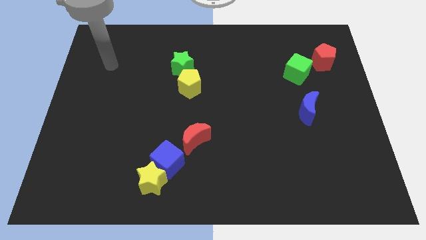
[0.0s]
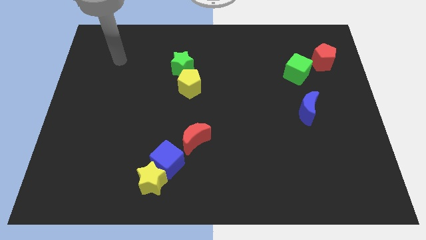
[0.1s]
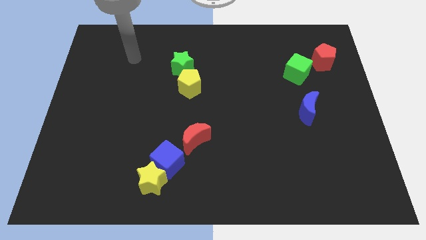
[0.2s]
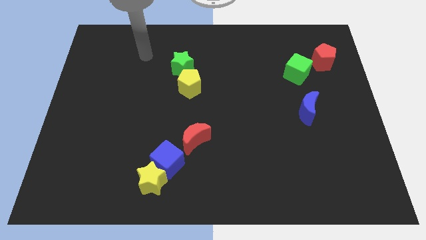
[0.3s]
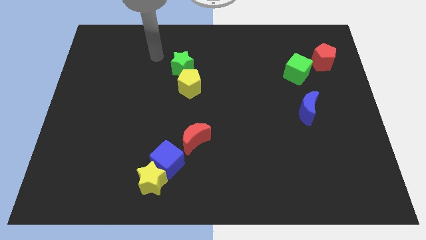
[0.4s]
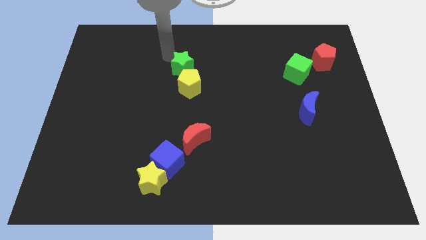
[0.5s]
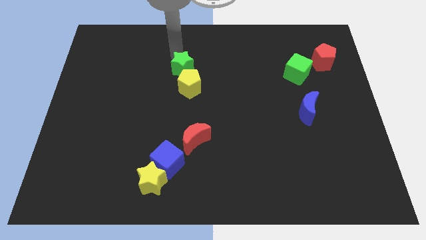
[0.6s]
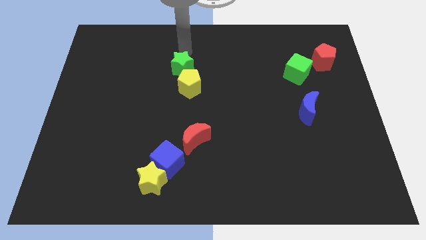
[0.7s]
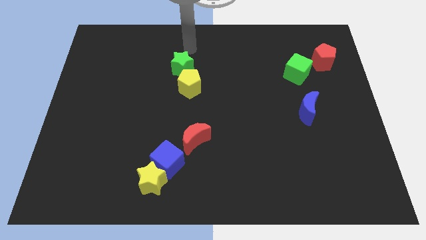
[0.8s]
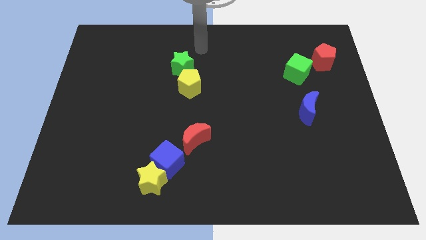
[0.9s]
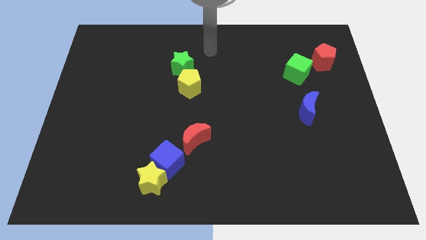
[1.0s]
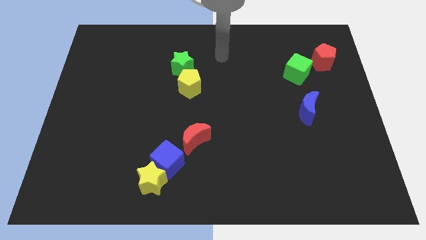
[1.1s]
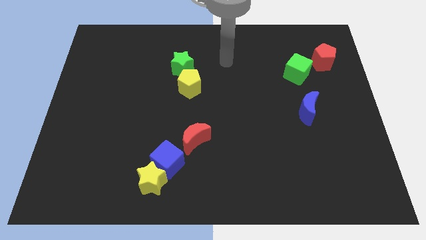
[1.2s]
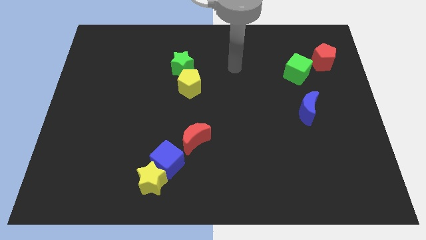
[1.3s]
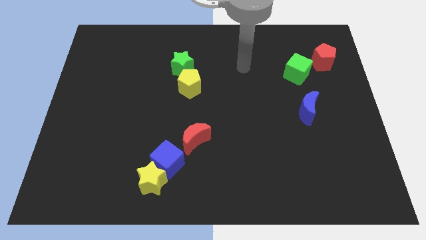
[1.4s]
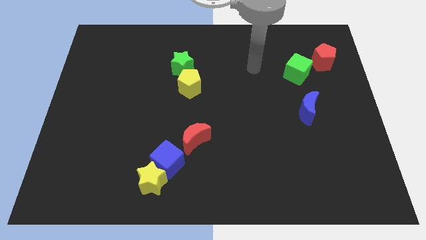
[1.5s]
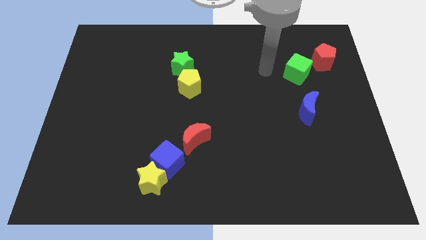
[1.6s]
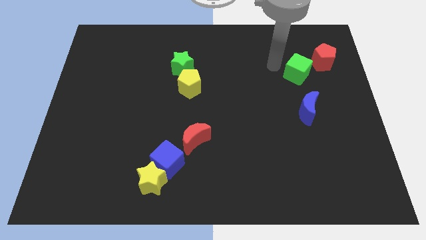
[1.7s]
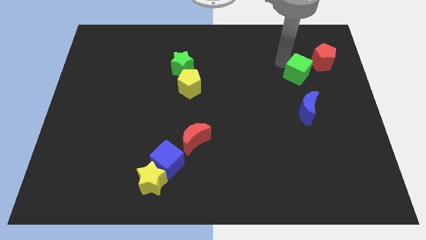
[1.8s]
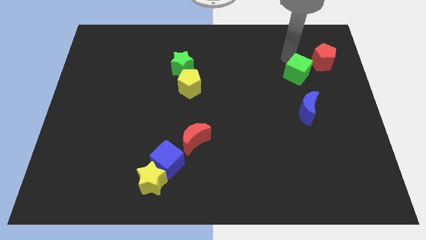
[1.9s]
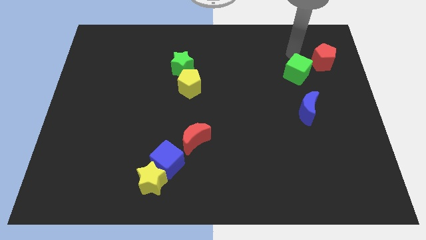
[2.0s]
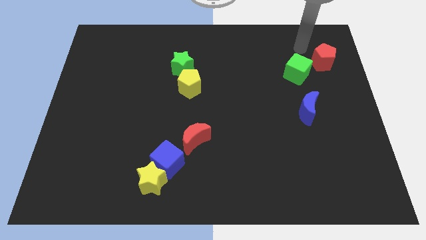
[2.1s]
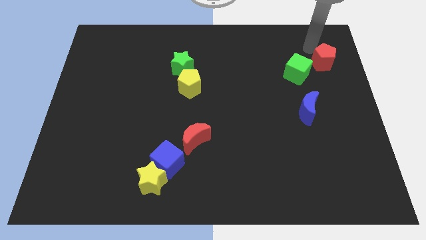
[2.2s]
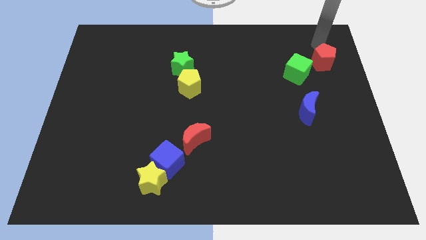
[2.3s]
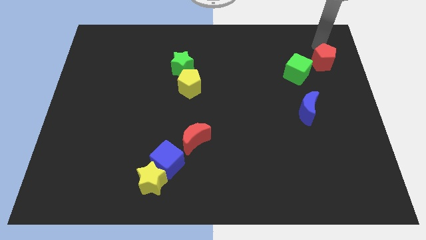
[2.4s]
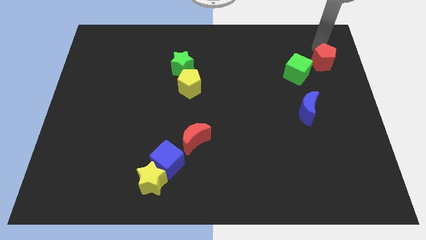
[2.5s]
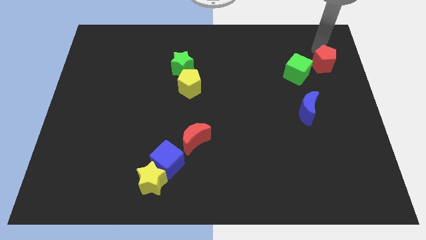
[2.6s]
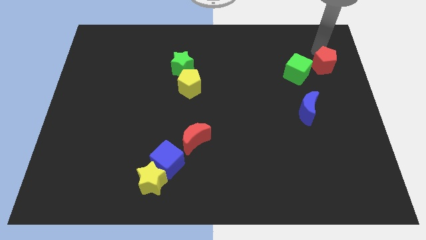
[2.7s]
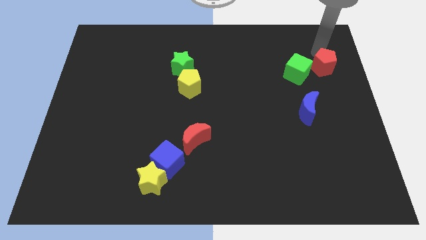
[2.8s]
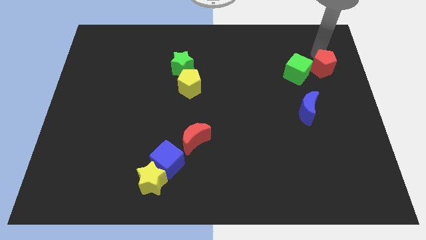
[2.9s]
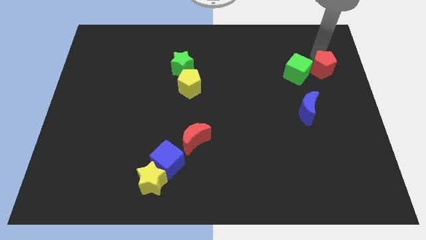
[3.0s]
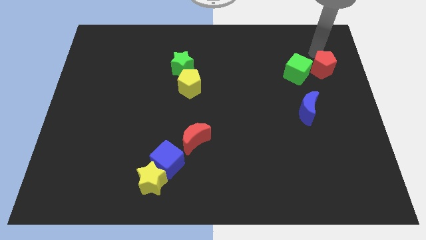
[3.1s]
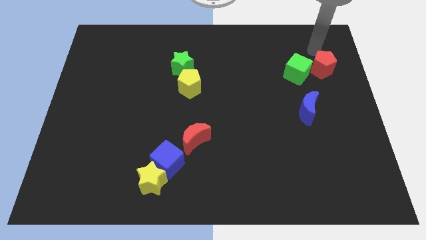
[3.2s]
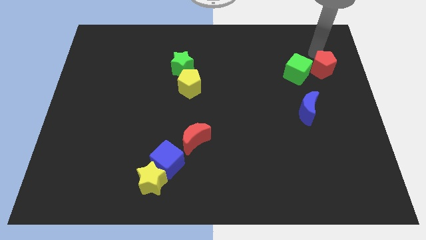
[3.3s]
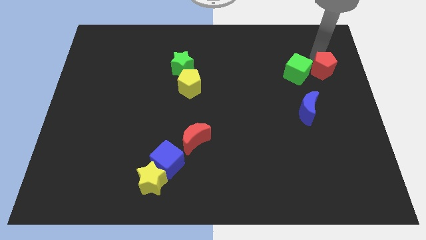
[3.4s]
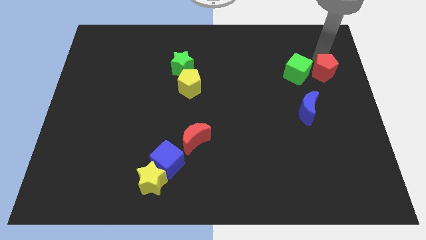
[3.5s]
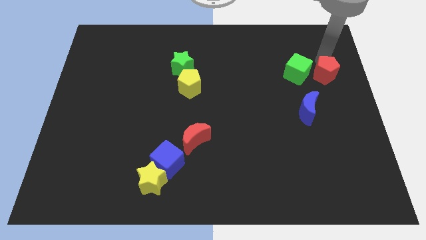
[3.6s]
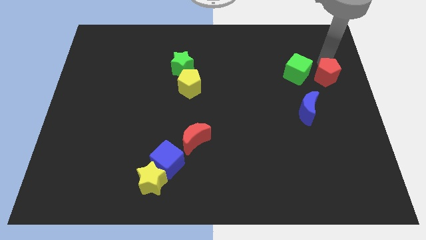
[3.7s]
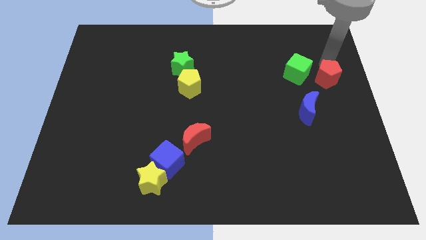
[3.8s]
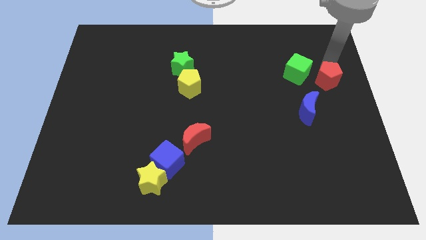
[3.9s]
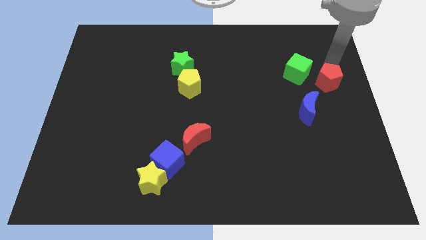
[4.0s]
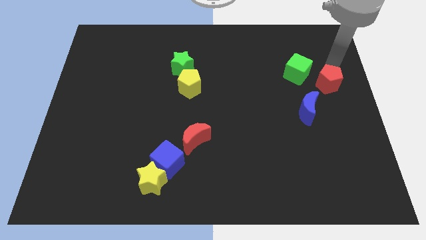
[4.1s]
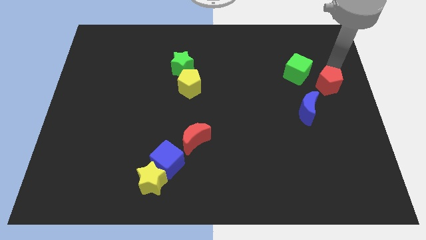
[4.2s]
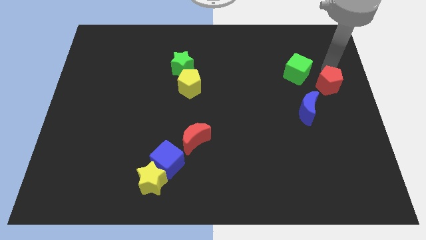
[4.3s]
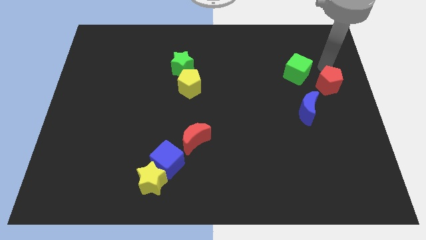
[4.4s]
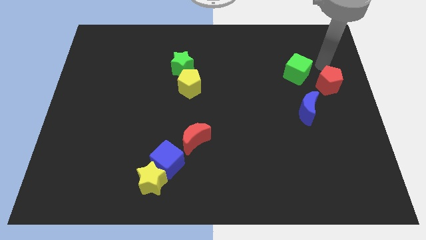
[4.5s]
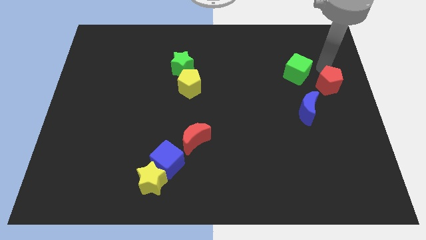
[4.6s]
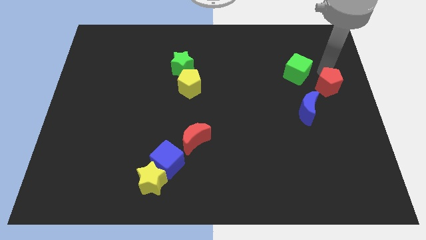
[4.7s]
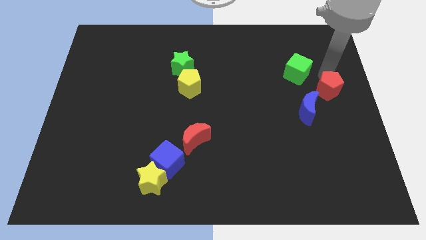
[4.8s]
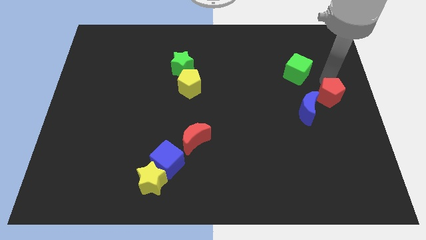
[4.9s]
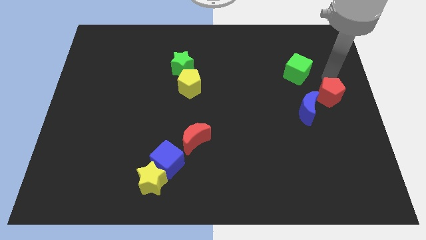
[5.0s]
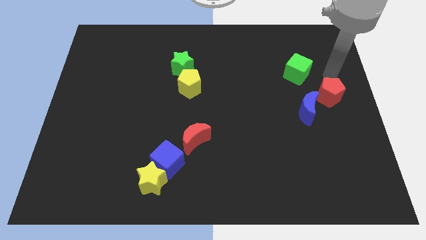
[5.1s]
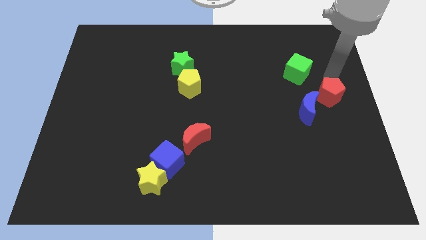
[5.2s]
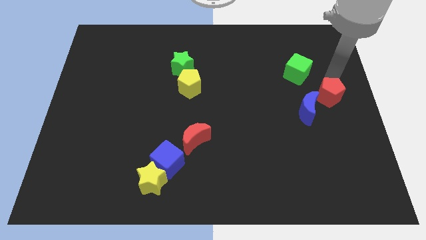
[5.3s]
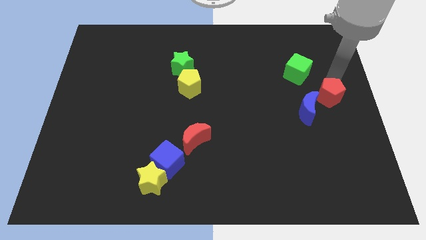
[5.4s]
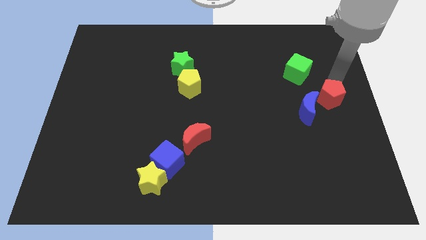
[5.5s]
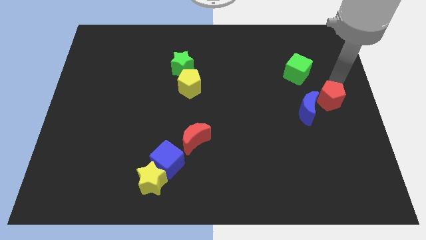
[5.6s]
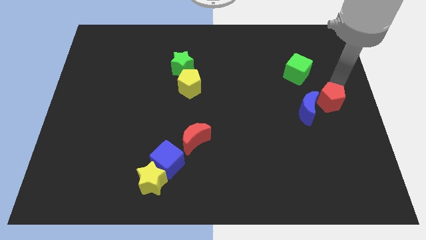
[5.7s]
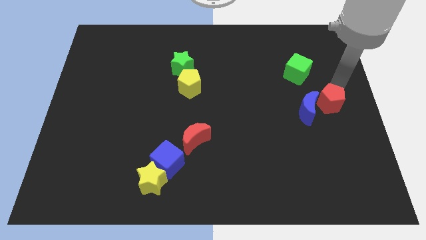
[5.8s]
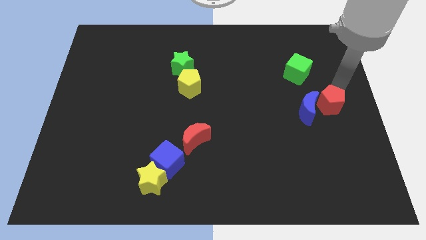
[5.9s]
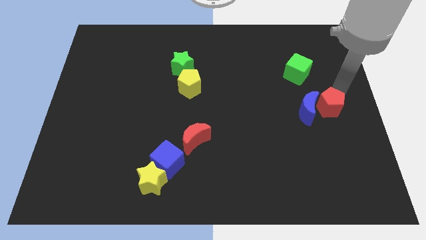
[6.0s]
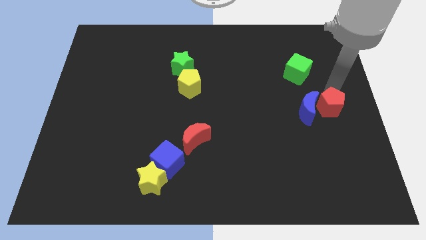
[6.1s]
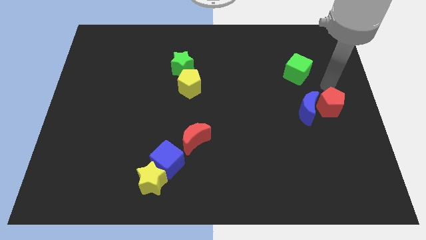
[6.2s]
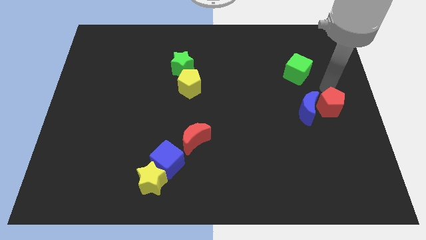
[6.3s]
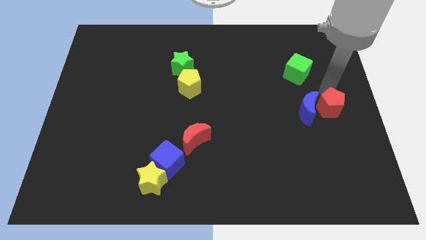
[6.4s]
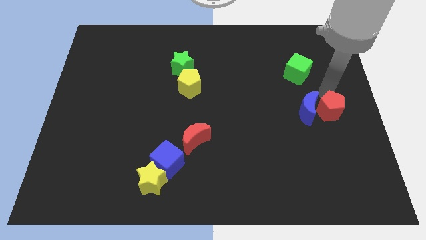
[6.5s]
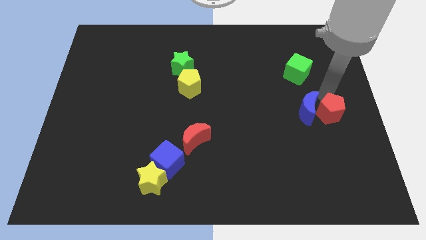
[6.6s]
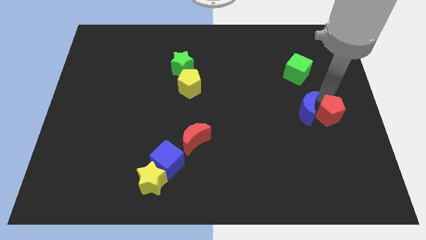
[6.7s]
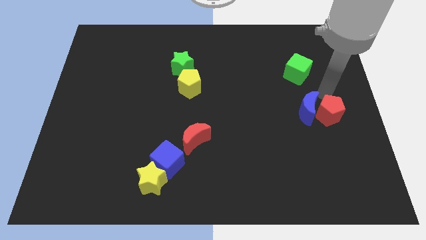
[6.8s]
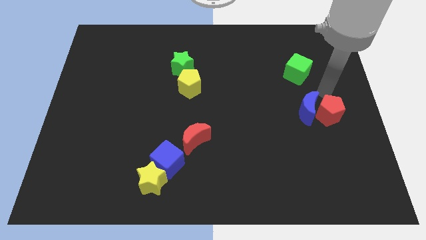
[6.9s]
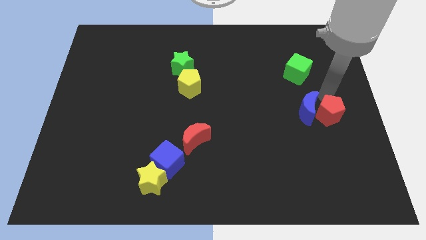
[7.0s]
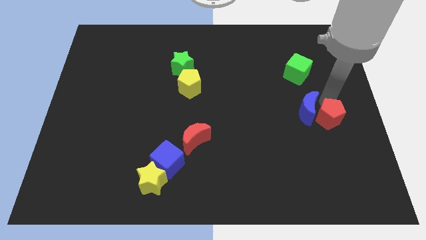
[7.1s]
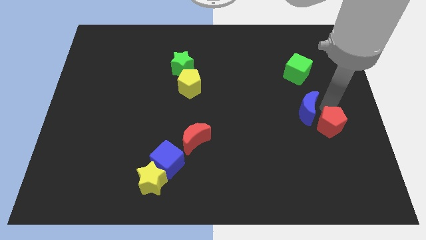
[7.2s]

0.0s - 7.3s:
slide the red pentagon down

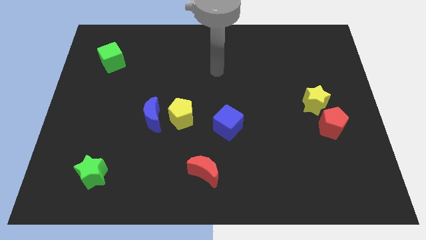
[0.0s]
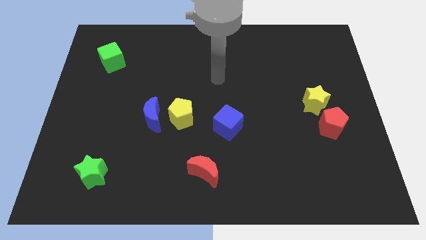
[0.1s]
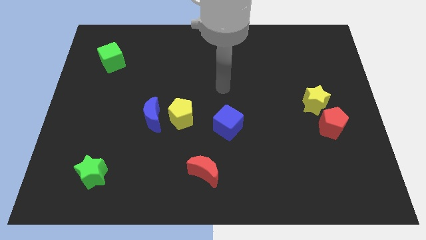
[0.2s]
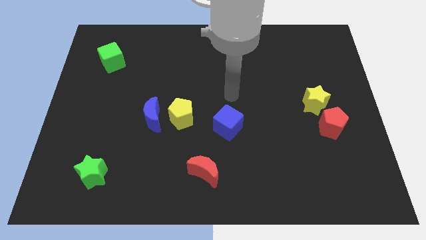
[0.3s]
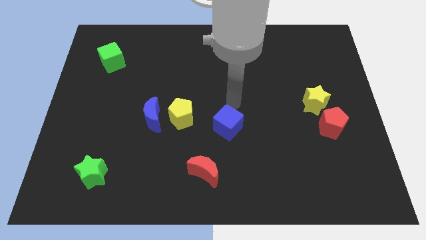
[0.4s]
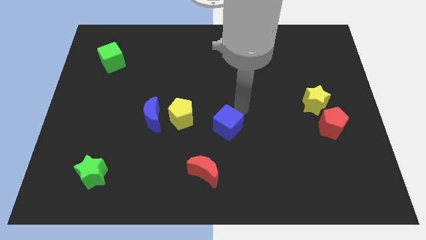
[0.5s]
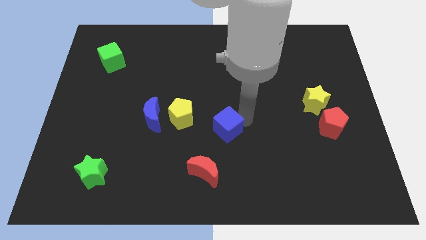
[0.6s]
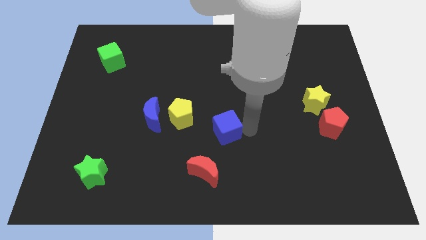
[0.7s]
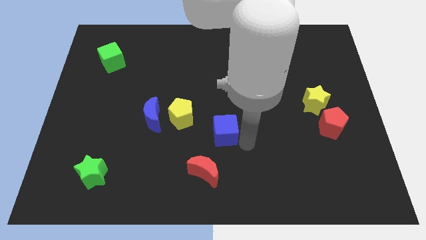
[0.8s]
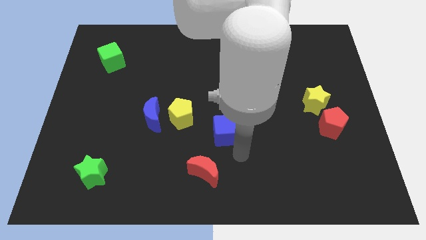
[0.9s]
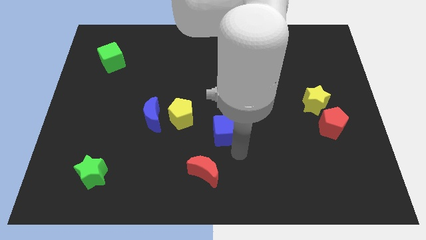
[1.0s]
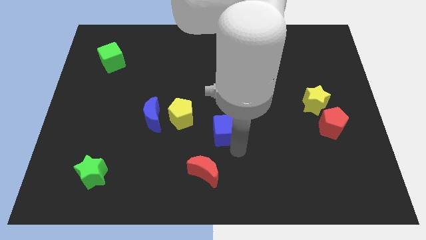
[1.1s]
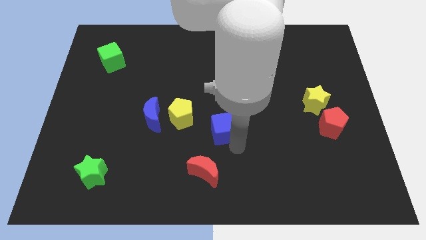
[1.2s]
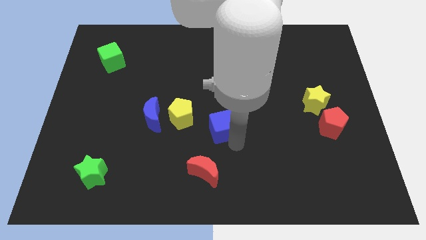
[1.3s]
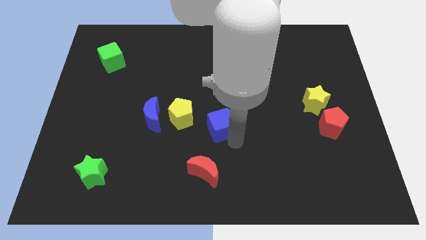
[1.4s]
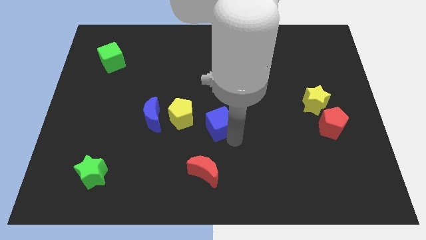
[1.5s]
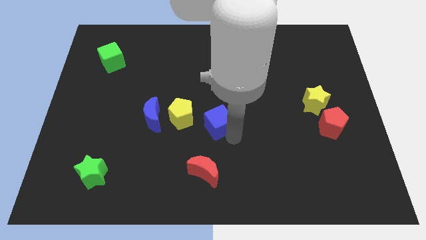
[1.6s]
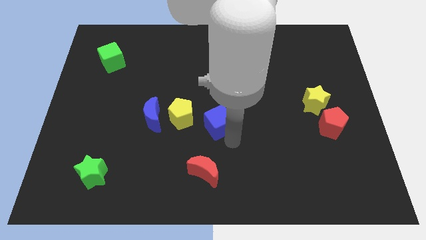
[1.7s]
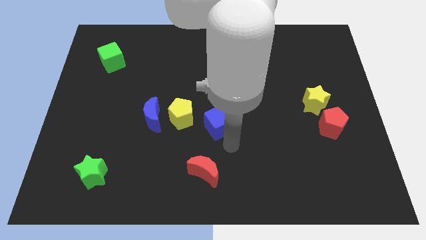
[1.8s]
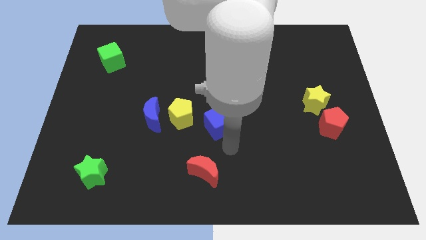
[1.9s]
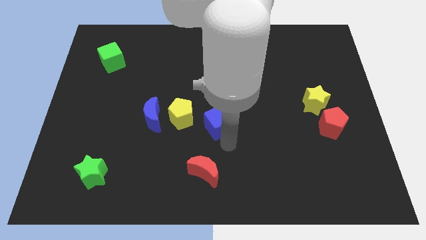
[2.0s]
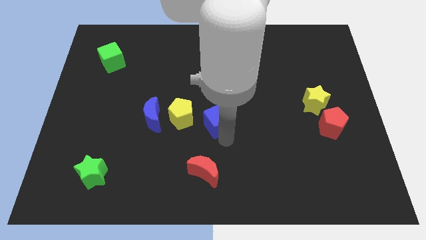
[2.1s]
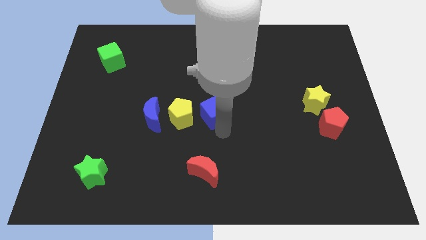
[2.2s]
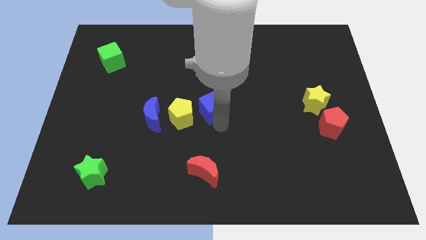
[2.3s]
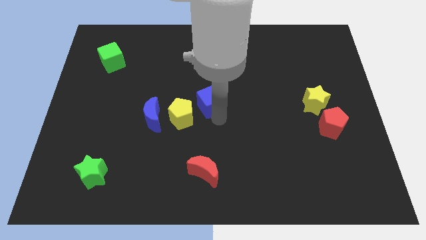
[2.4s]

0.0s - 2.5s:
slightly move the blue cube upwards and to the left
